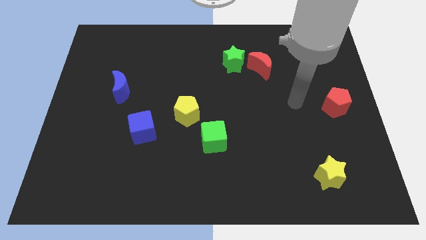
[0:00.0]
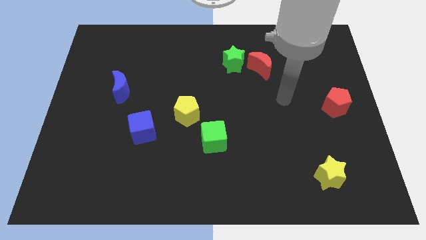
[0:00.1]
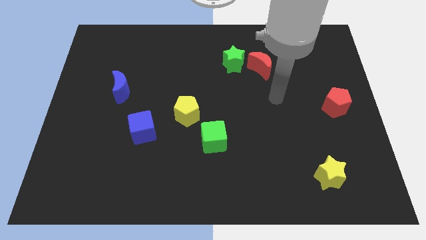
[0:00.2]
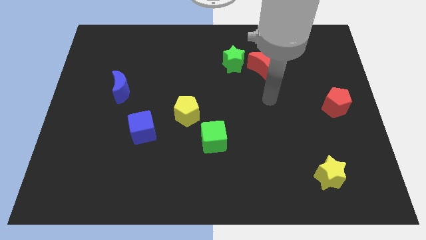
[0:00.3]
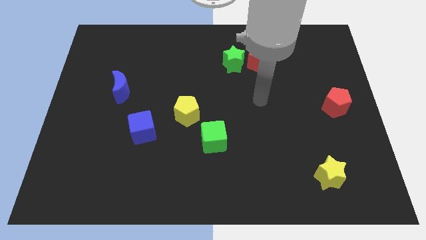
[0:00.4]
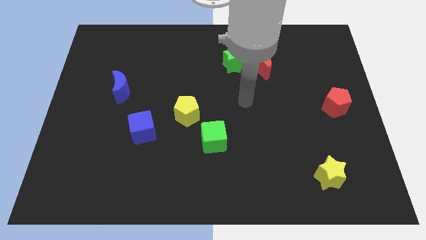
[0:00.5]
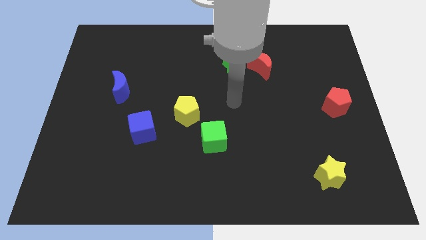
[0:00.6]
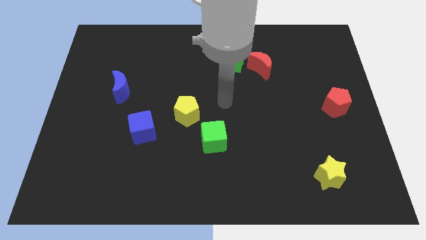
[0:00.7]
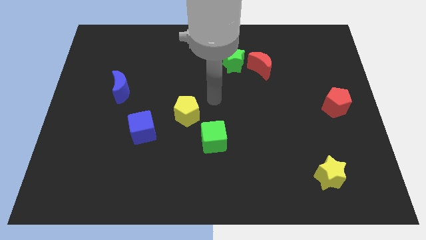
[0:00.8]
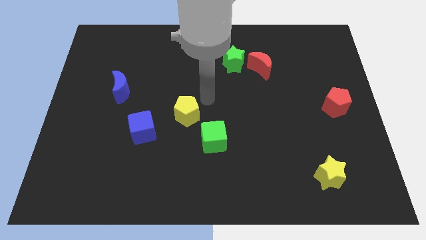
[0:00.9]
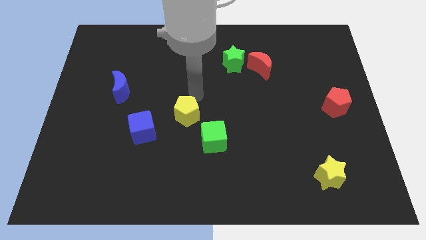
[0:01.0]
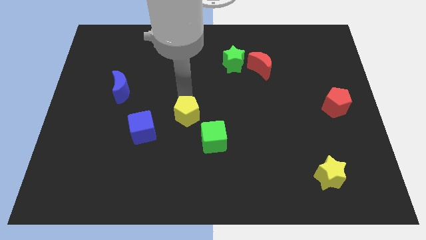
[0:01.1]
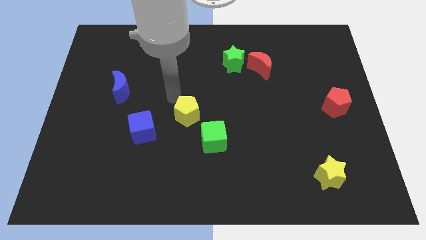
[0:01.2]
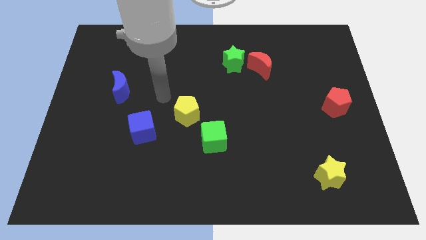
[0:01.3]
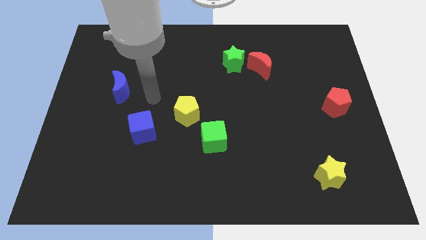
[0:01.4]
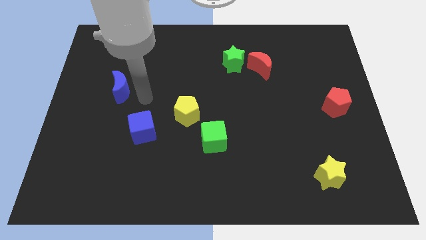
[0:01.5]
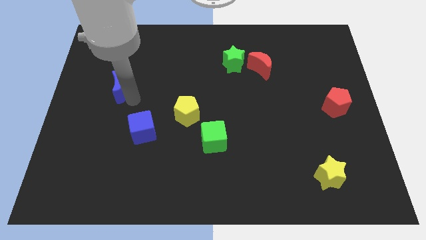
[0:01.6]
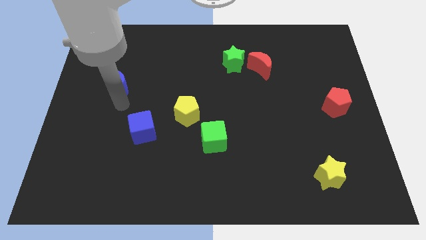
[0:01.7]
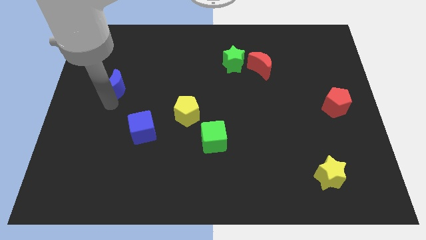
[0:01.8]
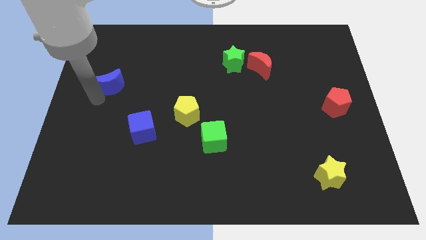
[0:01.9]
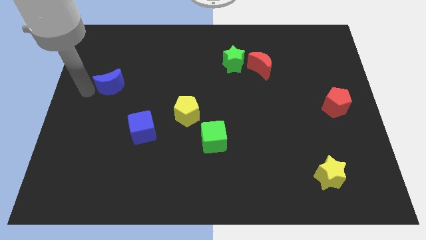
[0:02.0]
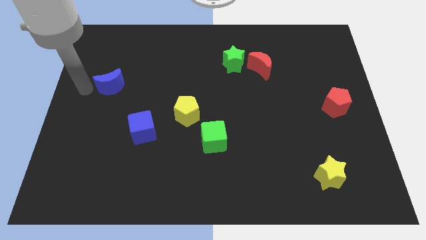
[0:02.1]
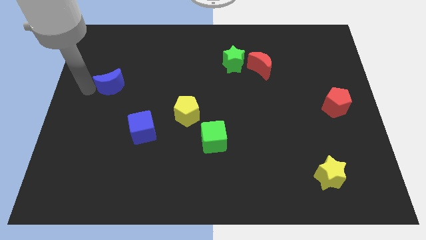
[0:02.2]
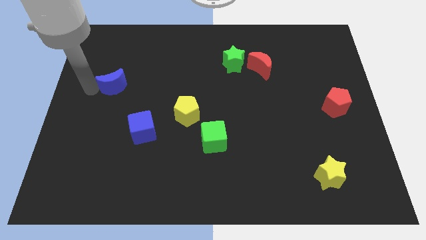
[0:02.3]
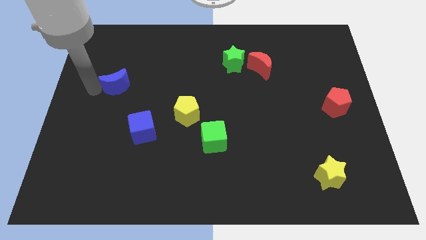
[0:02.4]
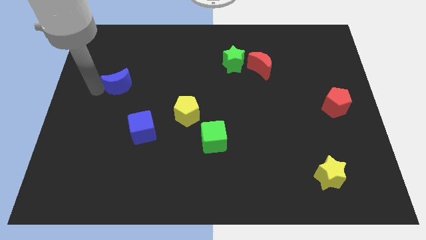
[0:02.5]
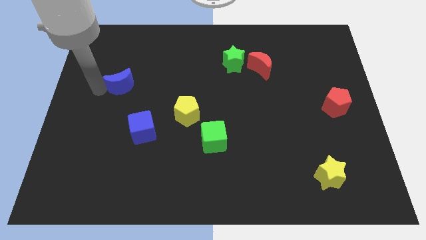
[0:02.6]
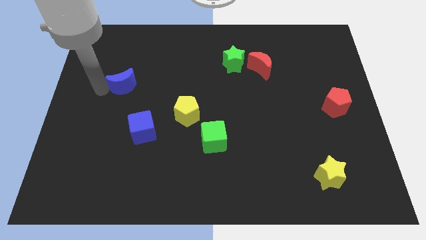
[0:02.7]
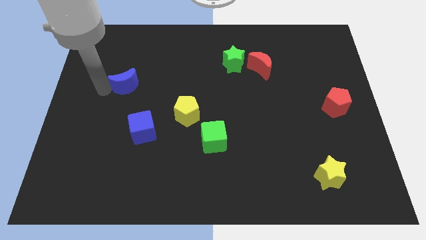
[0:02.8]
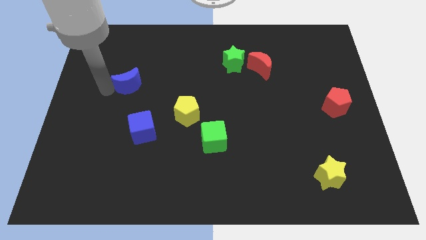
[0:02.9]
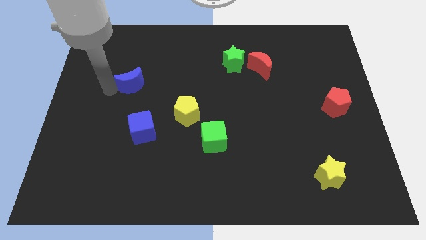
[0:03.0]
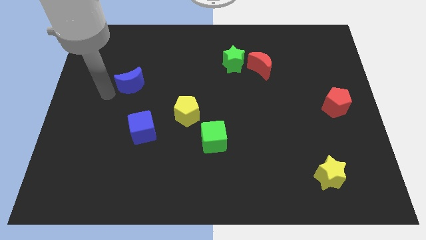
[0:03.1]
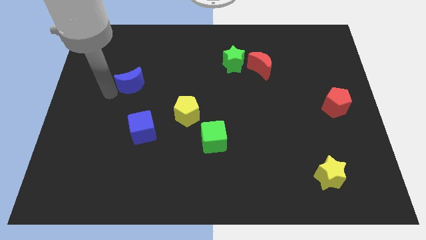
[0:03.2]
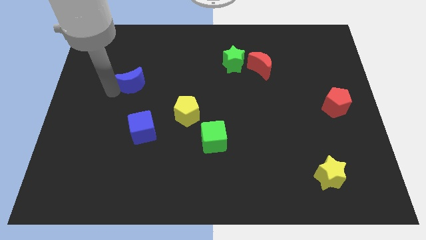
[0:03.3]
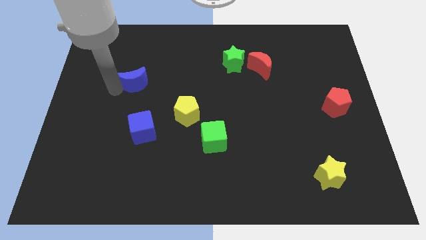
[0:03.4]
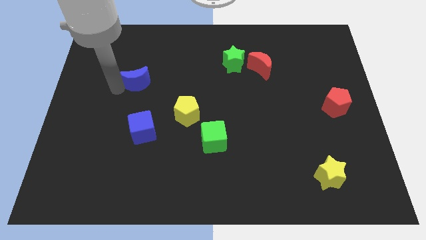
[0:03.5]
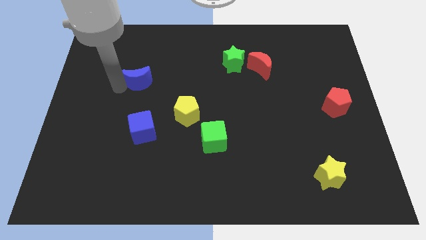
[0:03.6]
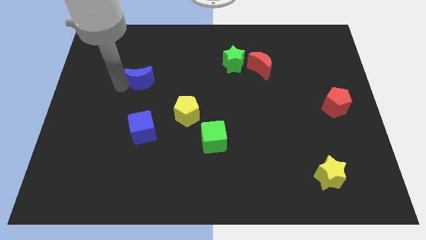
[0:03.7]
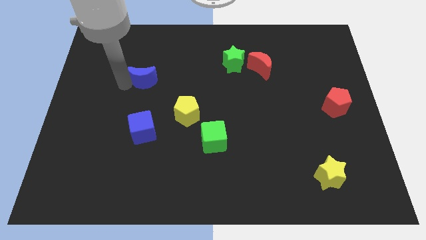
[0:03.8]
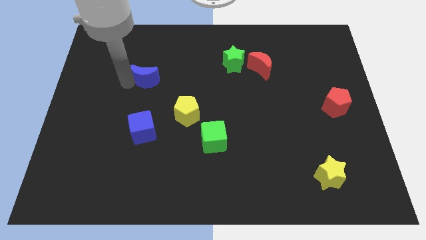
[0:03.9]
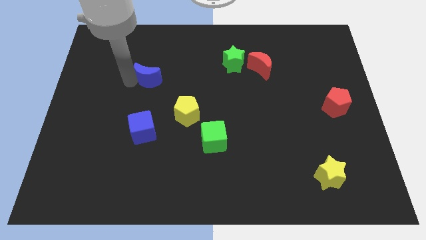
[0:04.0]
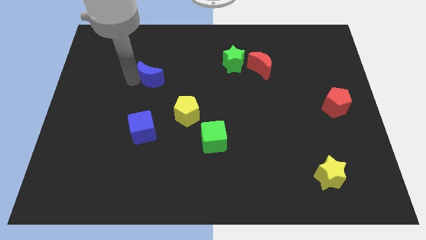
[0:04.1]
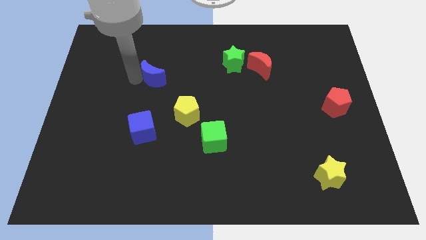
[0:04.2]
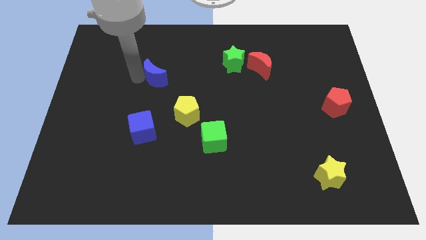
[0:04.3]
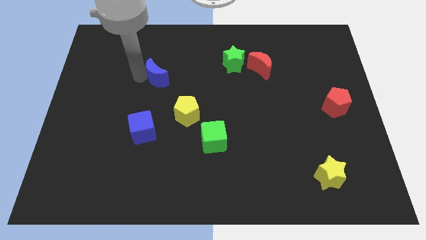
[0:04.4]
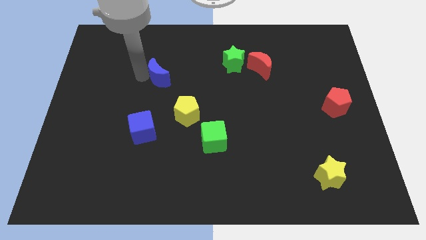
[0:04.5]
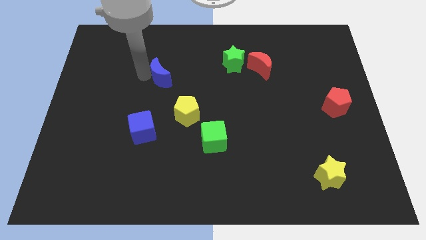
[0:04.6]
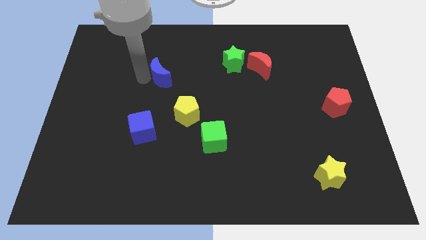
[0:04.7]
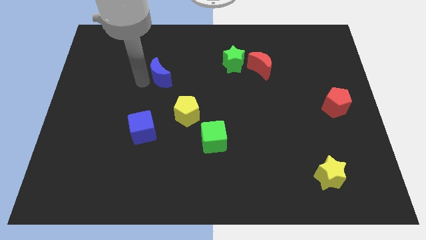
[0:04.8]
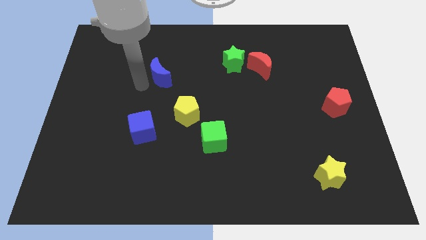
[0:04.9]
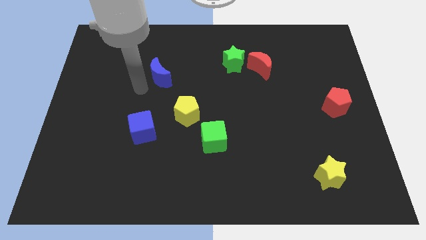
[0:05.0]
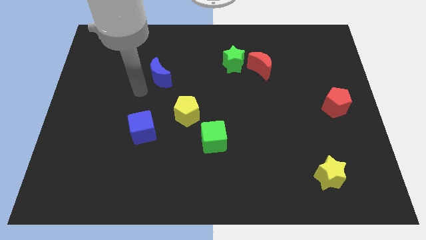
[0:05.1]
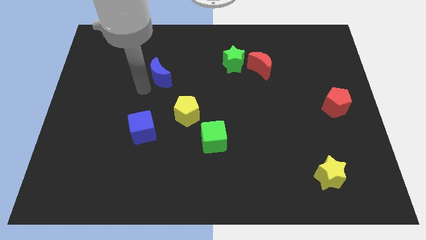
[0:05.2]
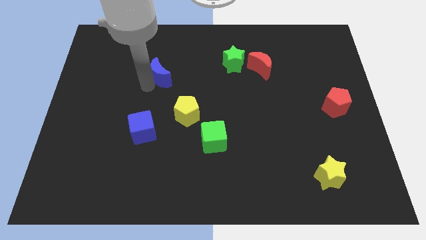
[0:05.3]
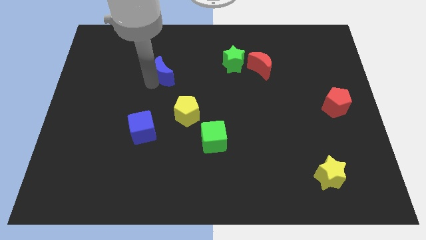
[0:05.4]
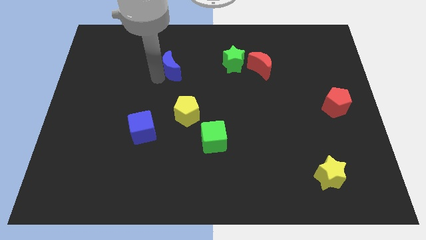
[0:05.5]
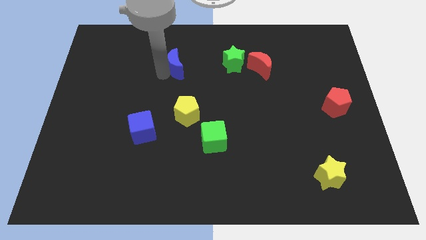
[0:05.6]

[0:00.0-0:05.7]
move the blue moon to the left of the green star

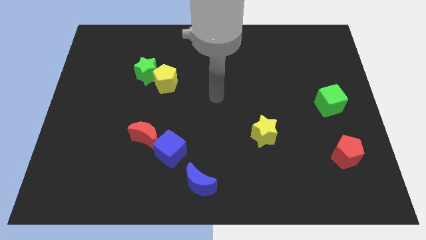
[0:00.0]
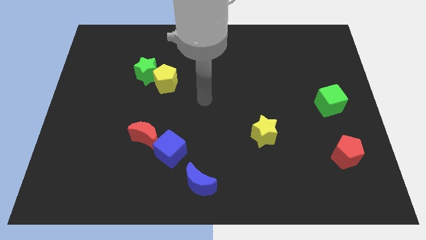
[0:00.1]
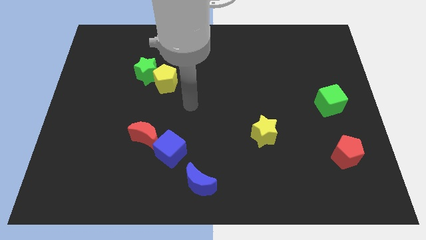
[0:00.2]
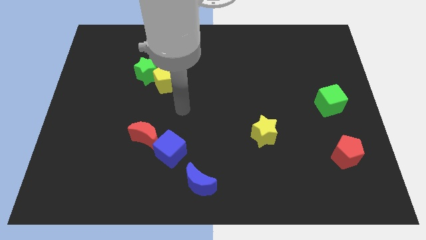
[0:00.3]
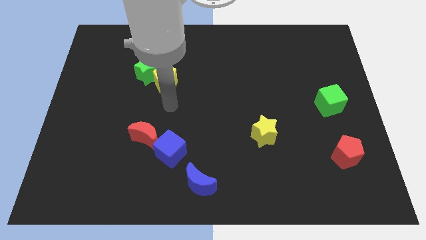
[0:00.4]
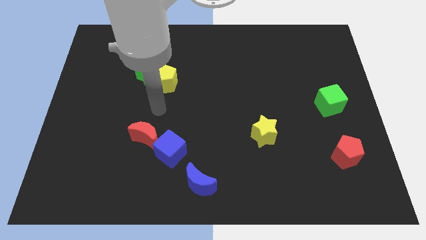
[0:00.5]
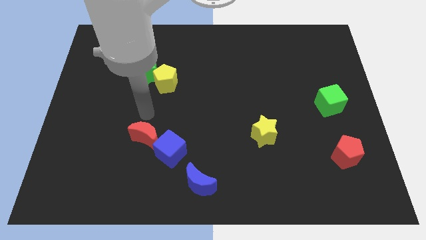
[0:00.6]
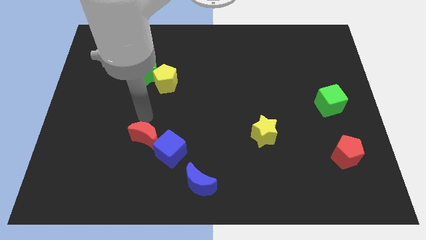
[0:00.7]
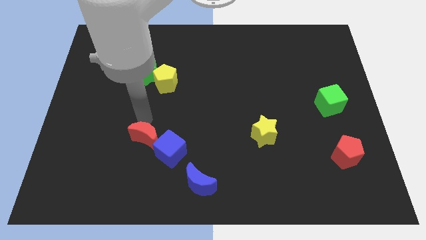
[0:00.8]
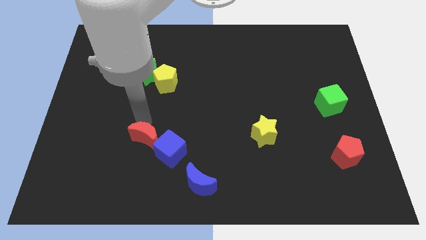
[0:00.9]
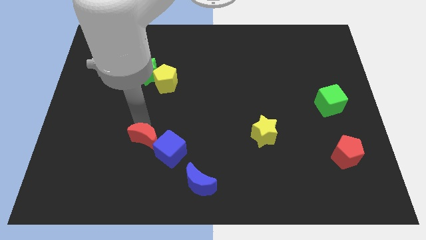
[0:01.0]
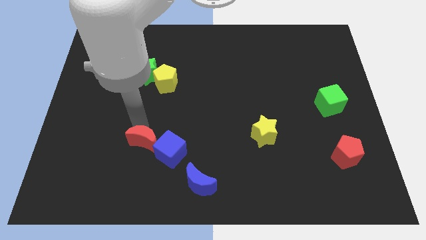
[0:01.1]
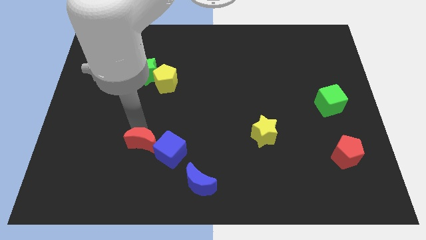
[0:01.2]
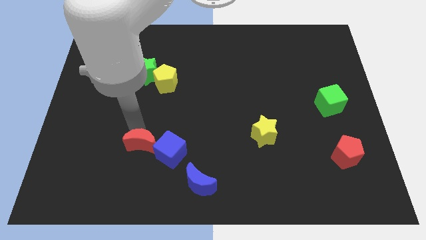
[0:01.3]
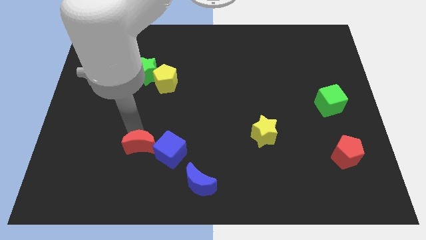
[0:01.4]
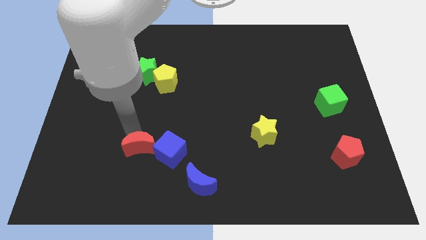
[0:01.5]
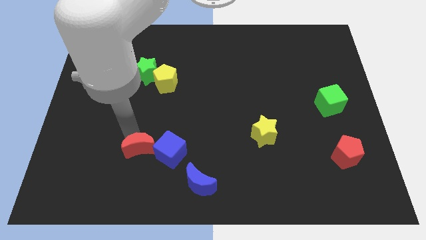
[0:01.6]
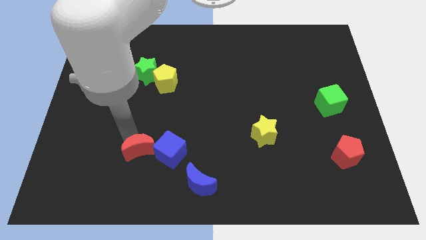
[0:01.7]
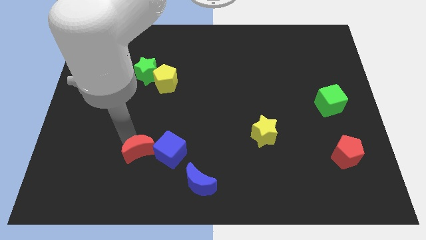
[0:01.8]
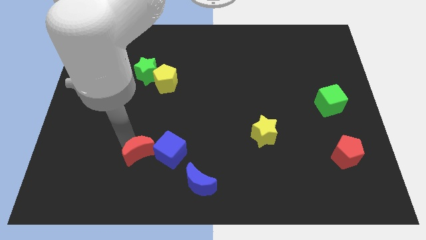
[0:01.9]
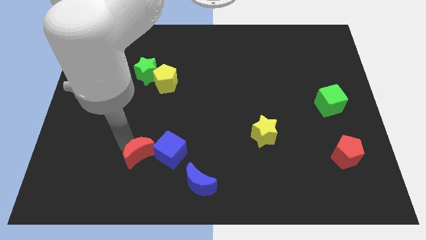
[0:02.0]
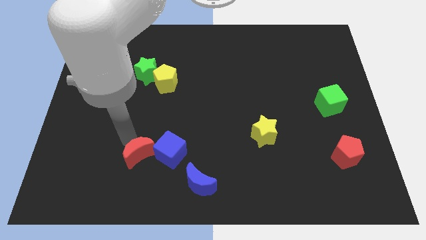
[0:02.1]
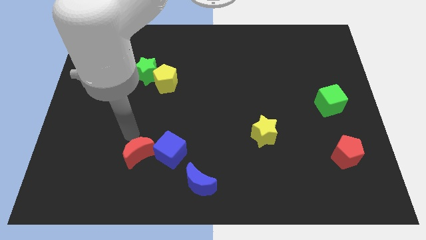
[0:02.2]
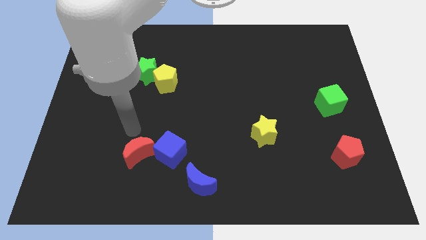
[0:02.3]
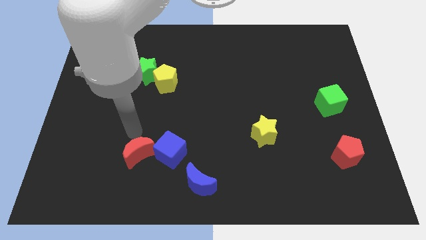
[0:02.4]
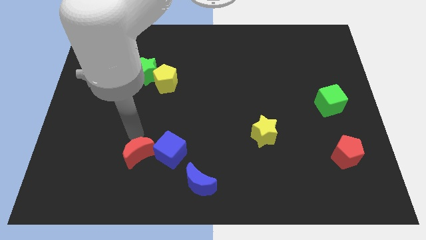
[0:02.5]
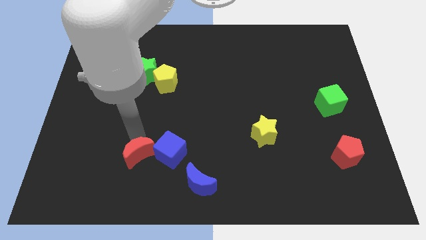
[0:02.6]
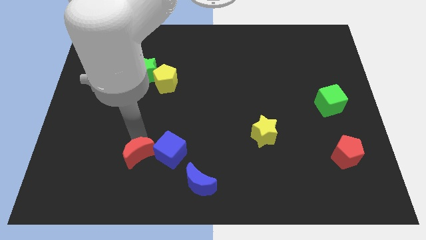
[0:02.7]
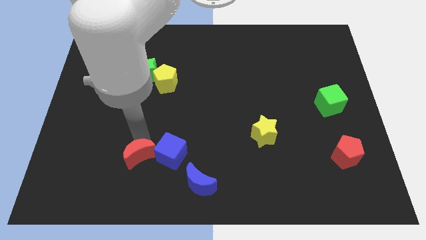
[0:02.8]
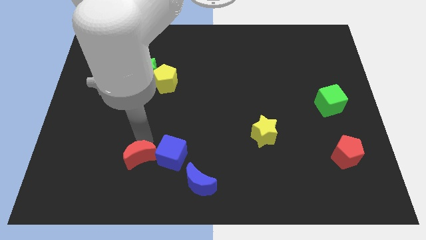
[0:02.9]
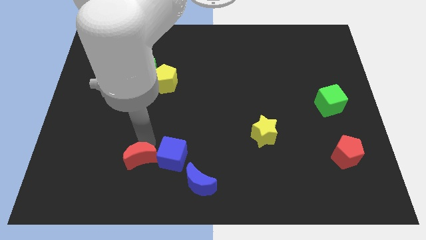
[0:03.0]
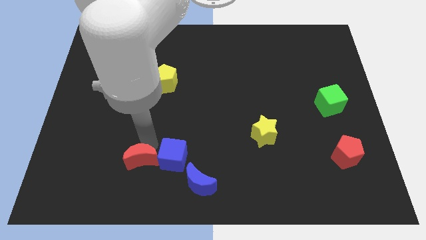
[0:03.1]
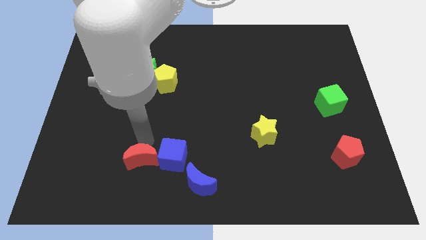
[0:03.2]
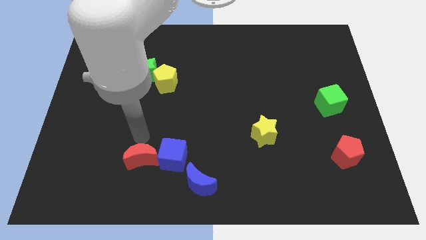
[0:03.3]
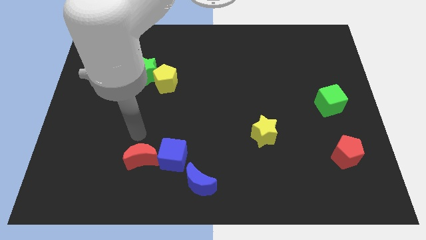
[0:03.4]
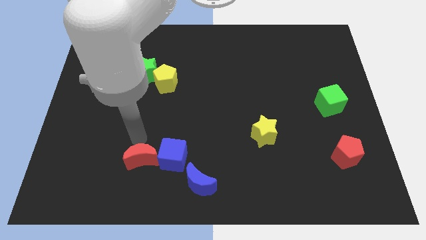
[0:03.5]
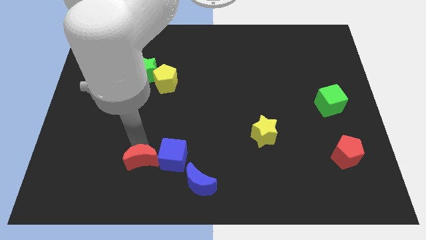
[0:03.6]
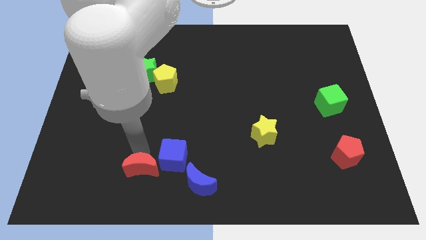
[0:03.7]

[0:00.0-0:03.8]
push the red moon to the left side of the blue moon
